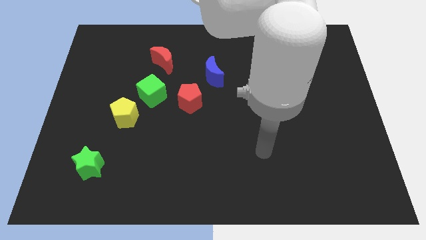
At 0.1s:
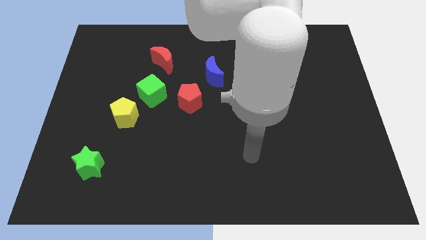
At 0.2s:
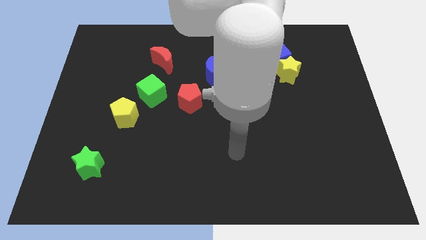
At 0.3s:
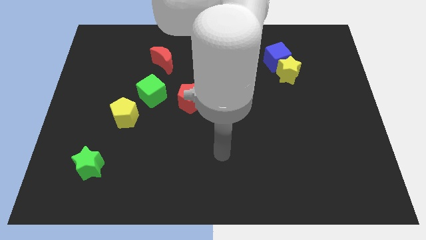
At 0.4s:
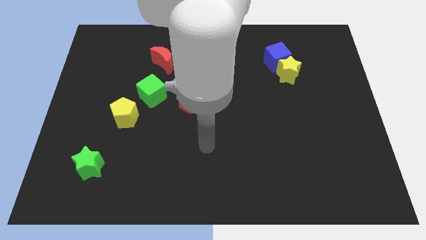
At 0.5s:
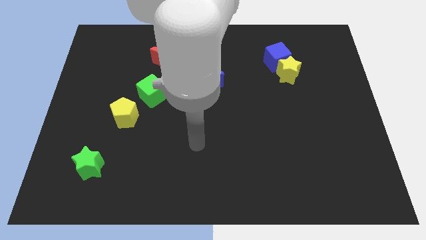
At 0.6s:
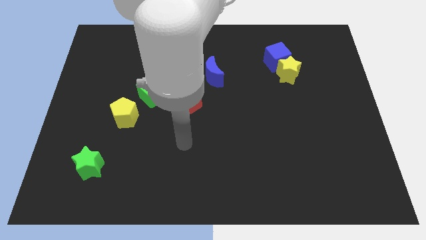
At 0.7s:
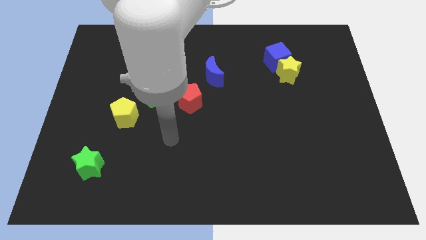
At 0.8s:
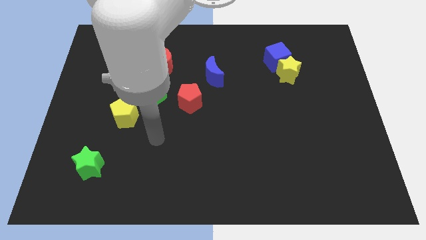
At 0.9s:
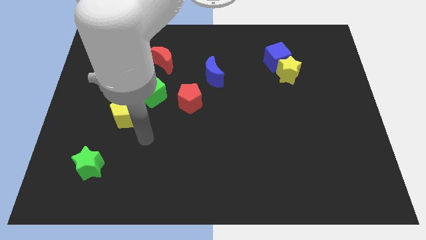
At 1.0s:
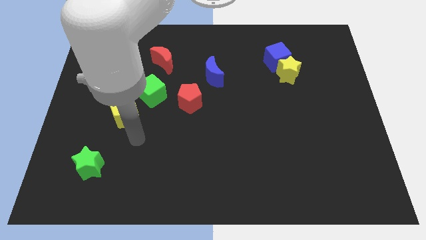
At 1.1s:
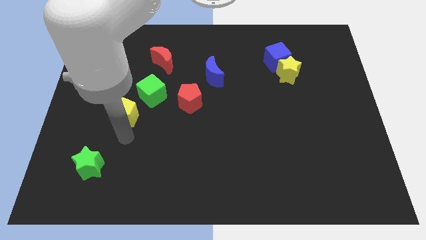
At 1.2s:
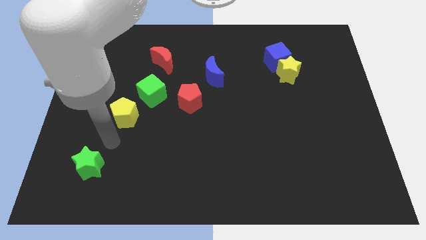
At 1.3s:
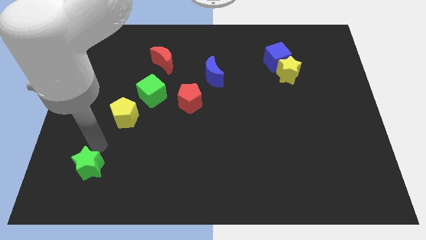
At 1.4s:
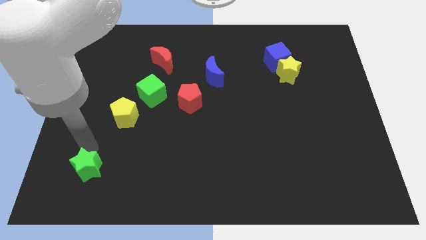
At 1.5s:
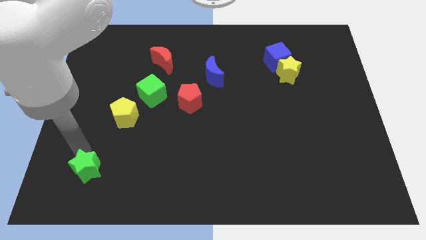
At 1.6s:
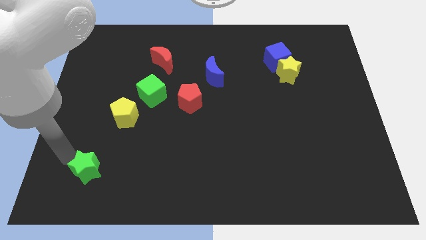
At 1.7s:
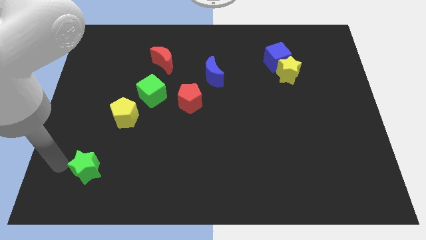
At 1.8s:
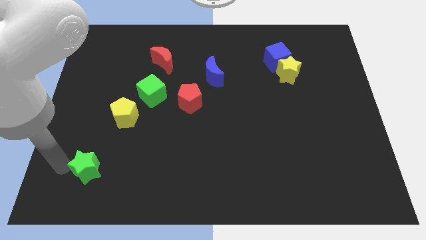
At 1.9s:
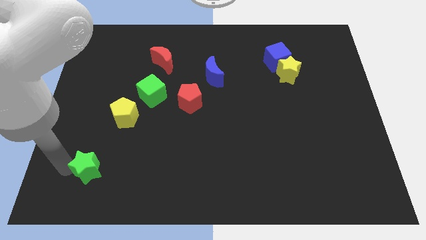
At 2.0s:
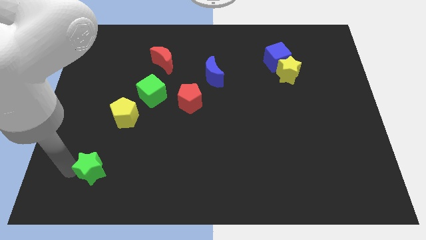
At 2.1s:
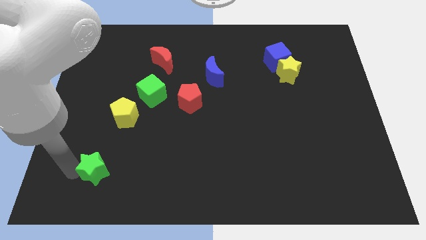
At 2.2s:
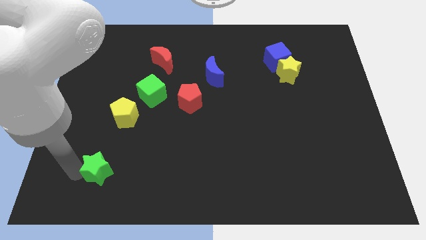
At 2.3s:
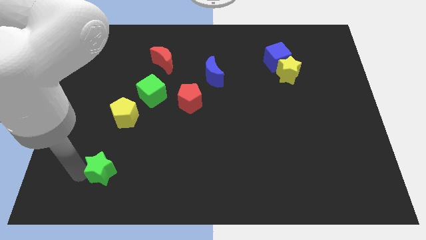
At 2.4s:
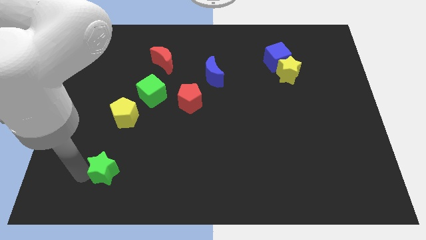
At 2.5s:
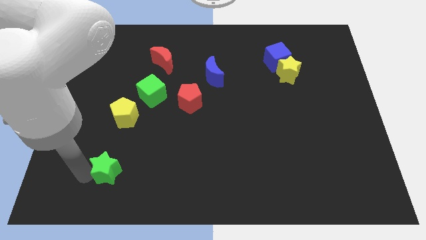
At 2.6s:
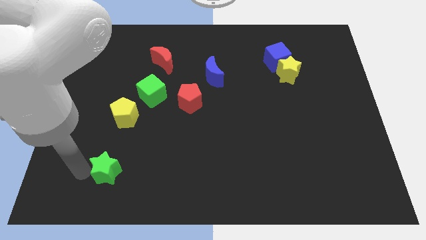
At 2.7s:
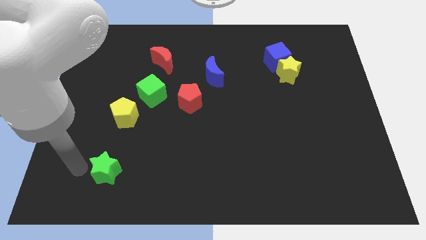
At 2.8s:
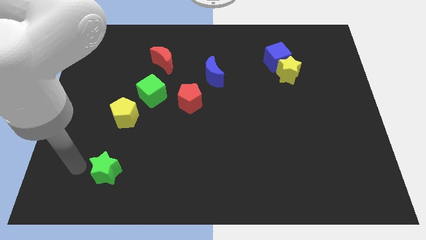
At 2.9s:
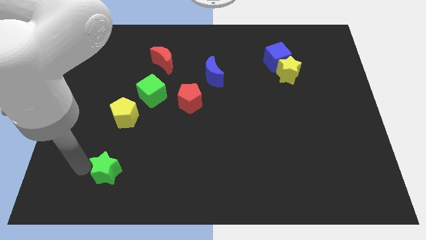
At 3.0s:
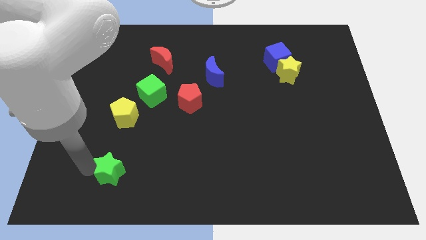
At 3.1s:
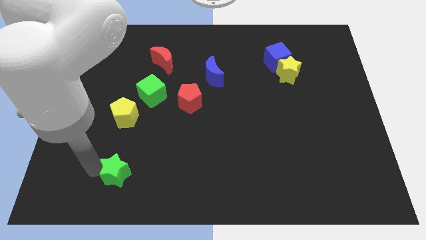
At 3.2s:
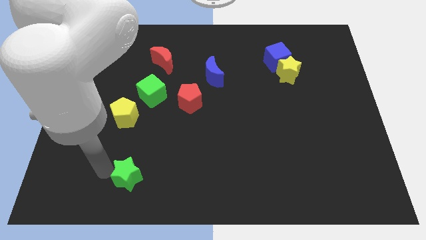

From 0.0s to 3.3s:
slightly move the green star right

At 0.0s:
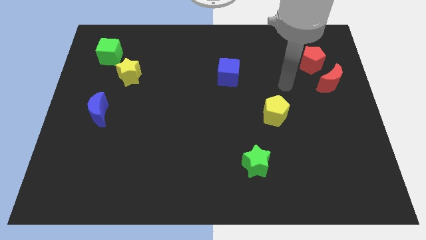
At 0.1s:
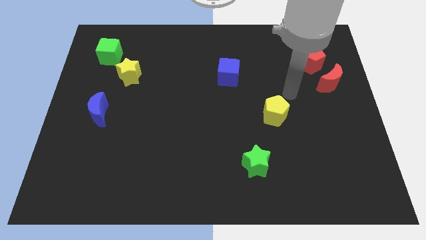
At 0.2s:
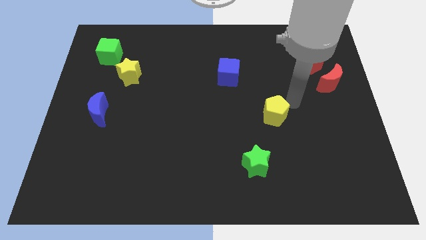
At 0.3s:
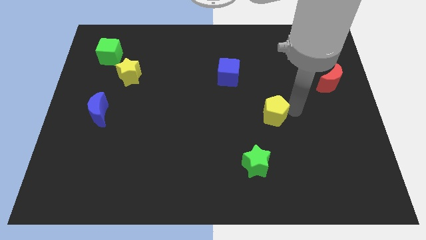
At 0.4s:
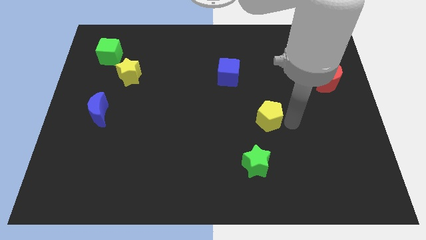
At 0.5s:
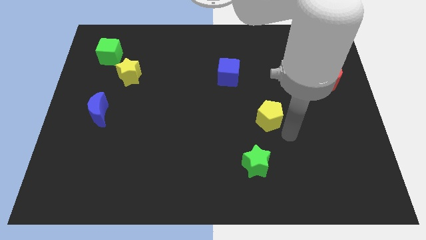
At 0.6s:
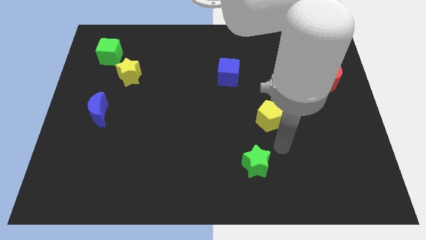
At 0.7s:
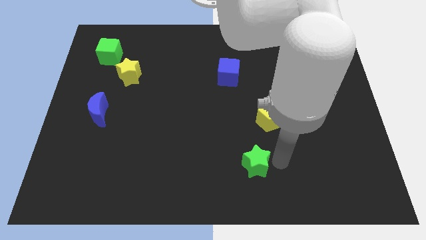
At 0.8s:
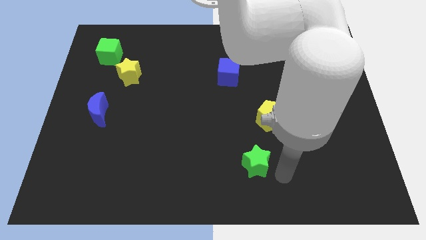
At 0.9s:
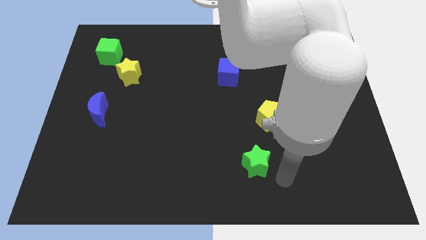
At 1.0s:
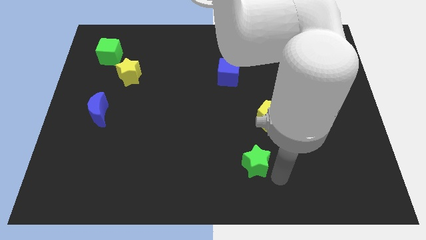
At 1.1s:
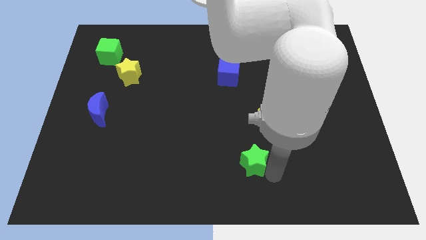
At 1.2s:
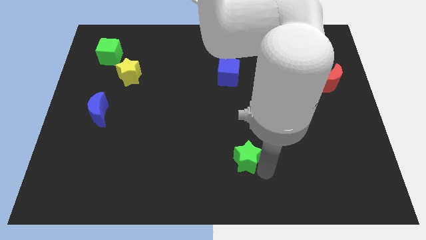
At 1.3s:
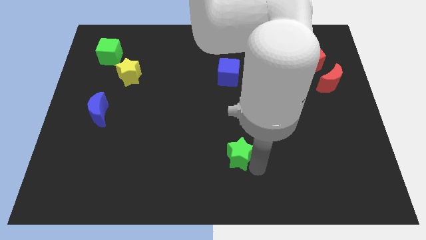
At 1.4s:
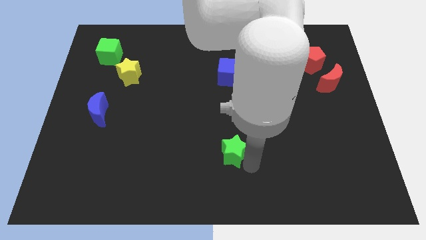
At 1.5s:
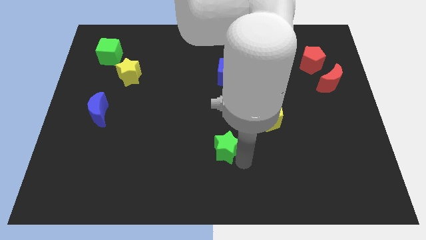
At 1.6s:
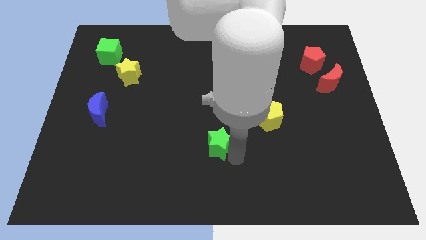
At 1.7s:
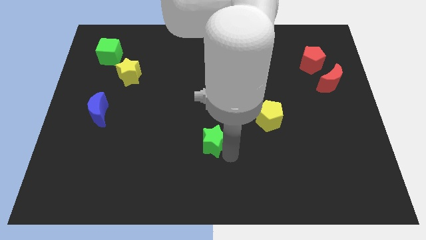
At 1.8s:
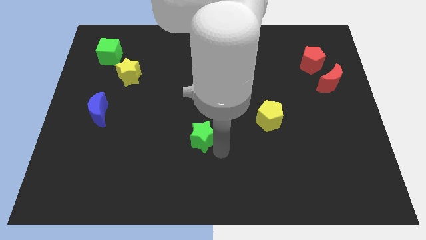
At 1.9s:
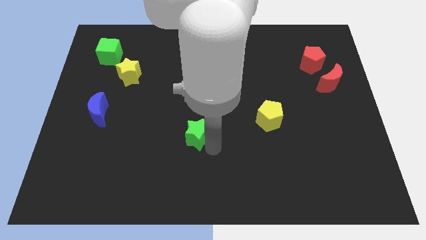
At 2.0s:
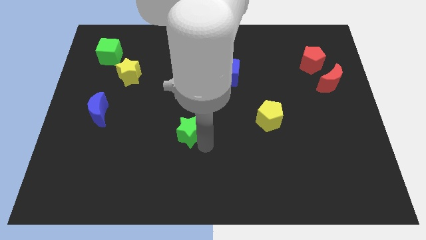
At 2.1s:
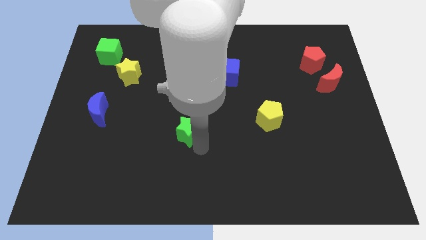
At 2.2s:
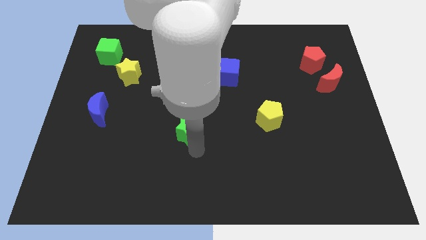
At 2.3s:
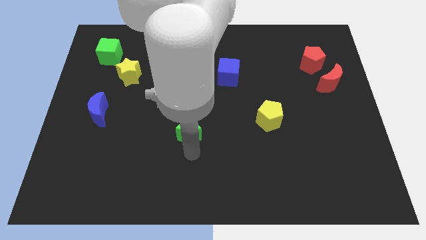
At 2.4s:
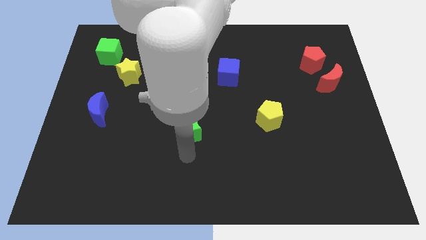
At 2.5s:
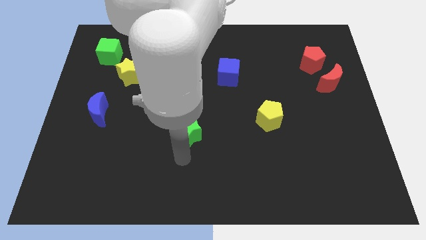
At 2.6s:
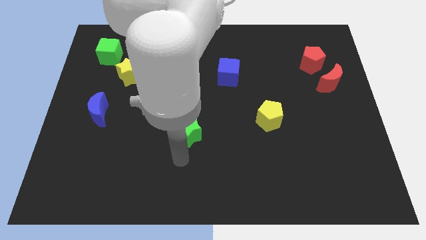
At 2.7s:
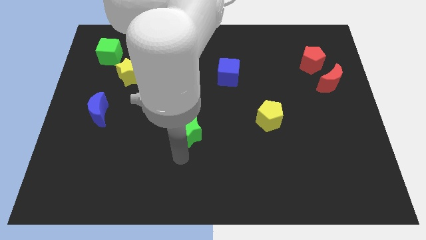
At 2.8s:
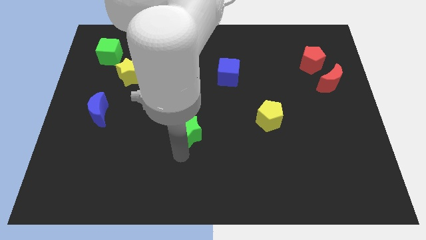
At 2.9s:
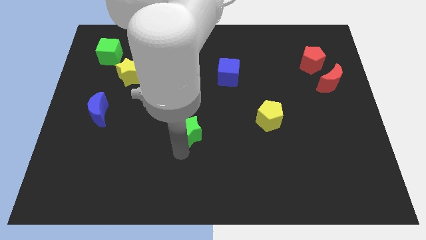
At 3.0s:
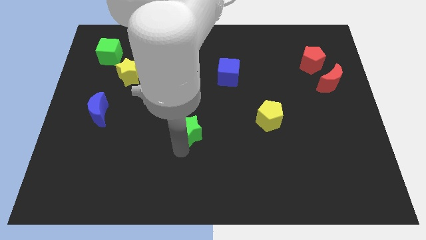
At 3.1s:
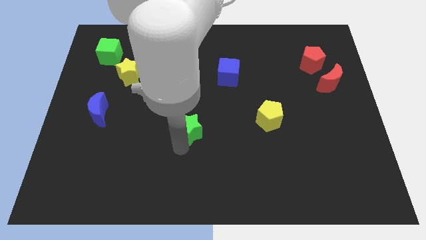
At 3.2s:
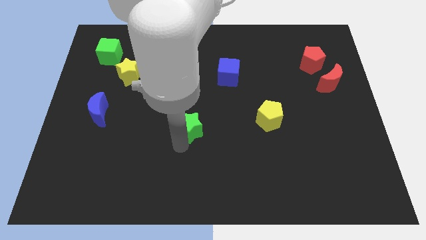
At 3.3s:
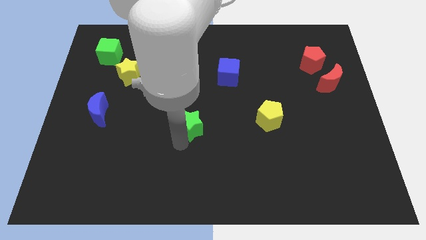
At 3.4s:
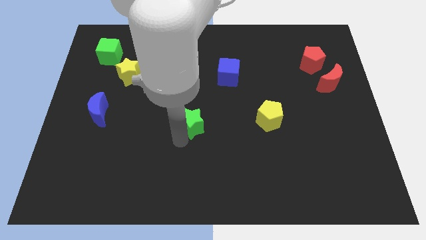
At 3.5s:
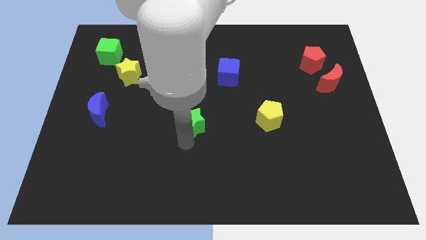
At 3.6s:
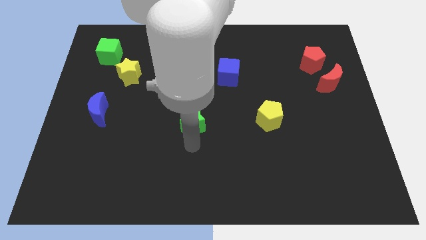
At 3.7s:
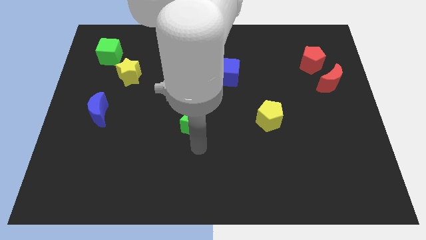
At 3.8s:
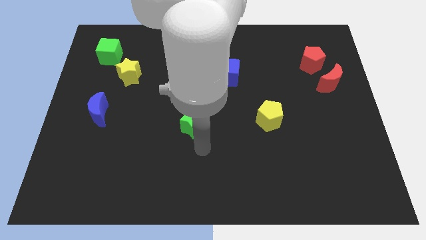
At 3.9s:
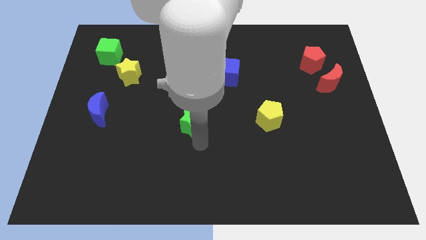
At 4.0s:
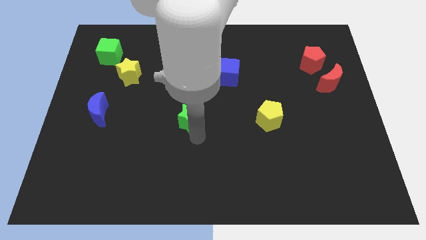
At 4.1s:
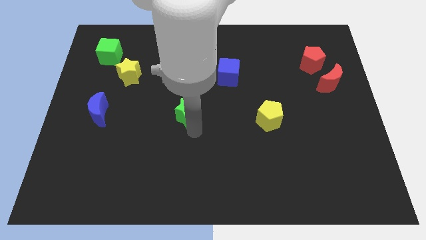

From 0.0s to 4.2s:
push the green star diagonally upwards and left

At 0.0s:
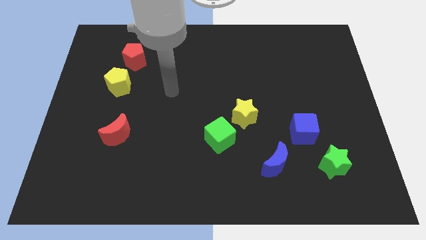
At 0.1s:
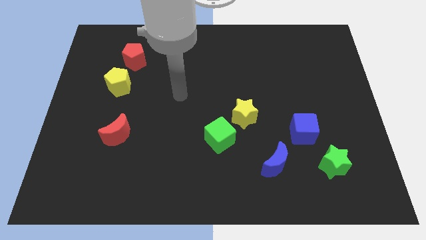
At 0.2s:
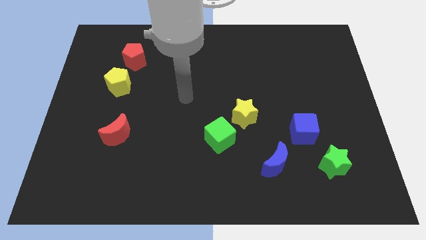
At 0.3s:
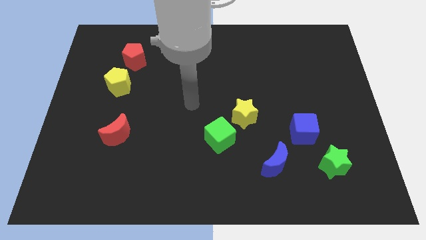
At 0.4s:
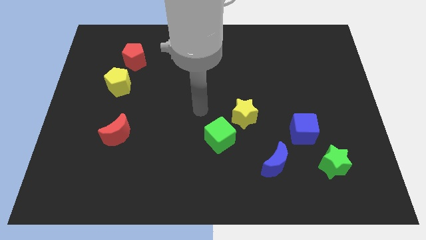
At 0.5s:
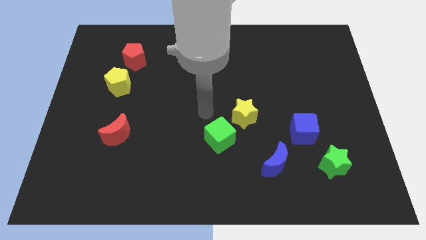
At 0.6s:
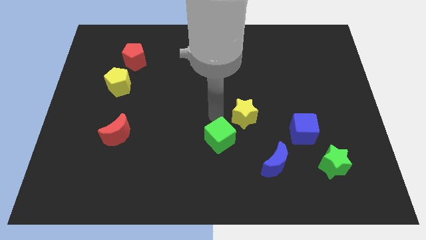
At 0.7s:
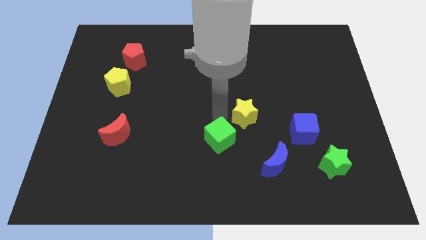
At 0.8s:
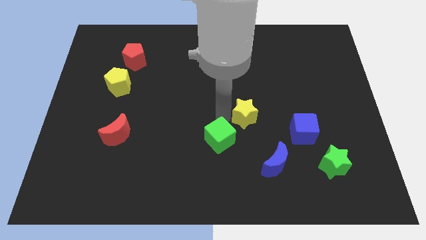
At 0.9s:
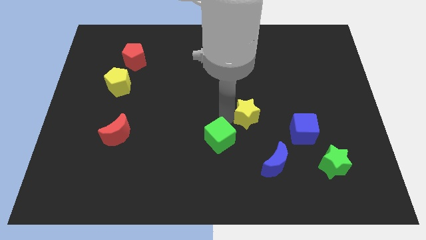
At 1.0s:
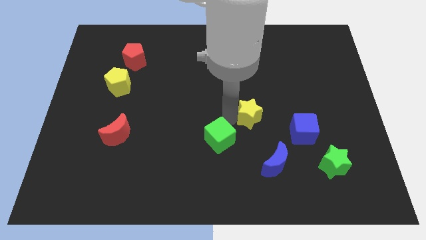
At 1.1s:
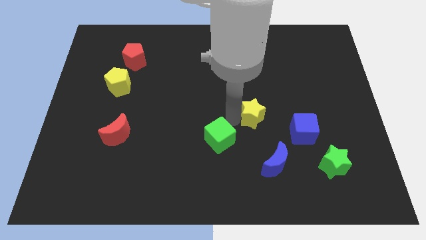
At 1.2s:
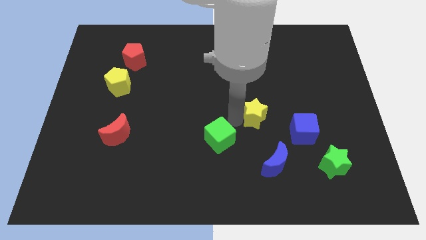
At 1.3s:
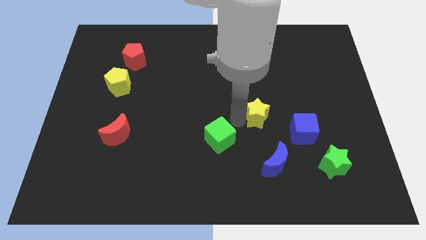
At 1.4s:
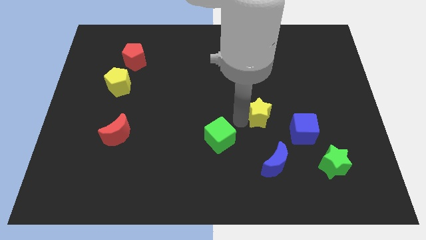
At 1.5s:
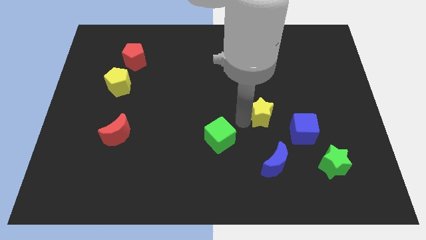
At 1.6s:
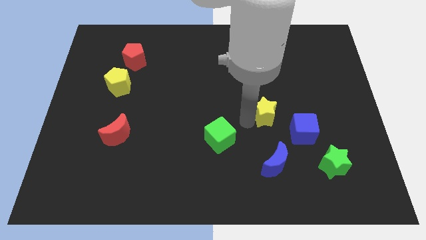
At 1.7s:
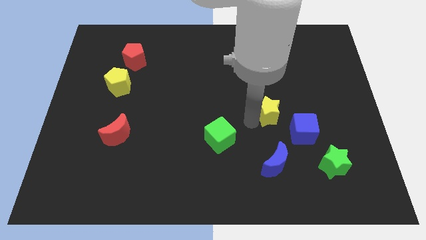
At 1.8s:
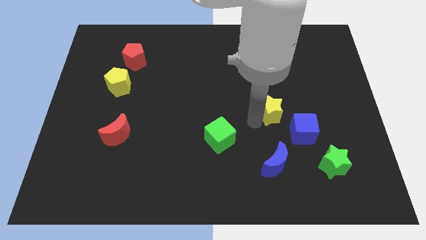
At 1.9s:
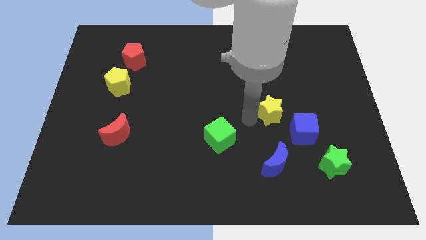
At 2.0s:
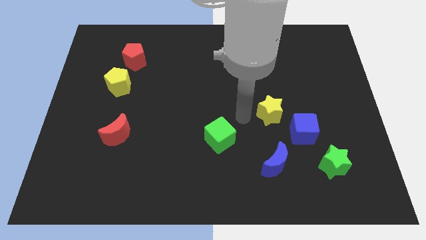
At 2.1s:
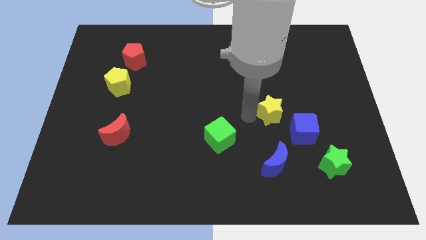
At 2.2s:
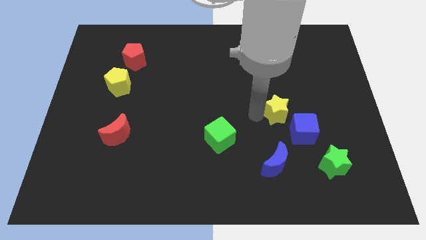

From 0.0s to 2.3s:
move the yellow star a bit right
